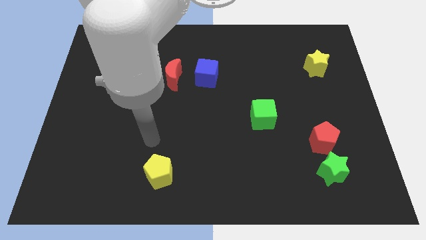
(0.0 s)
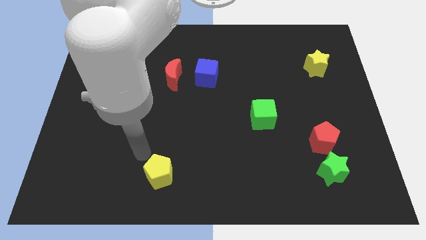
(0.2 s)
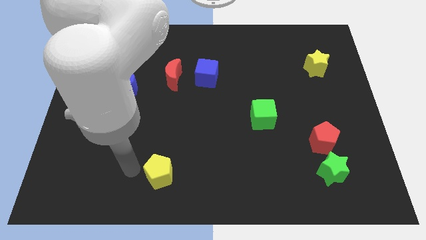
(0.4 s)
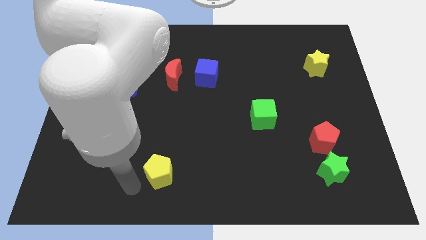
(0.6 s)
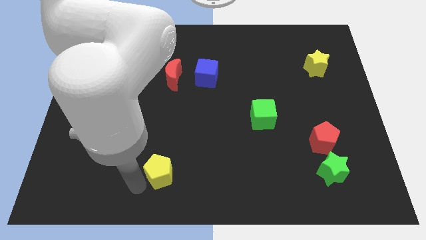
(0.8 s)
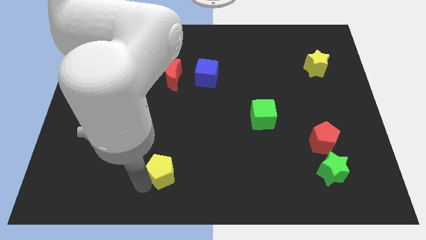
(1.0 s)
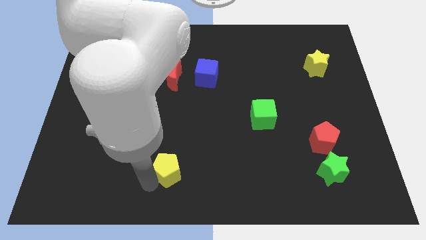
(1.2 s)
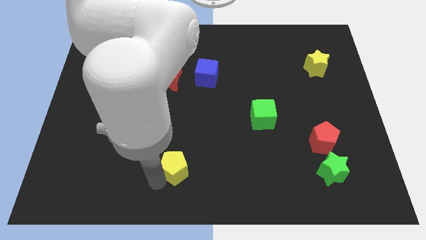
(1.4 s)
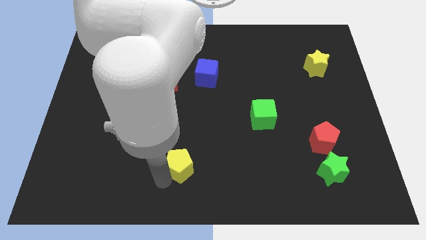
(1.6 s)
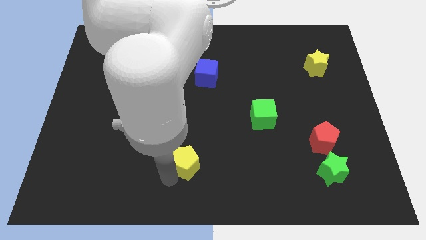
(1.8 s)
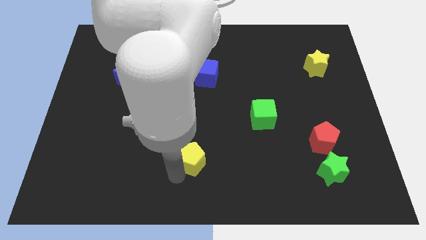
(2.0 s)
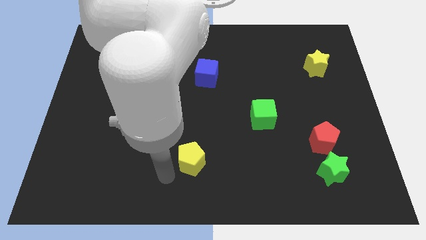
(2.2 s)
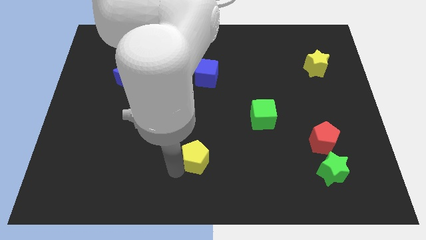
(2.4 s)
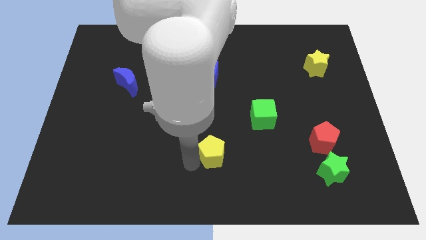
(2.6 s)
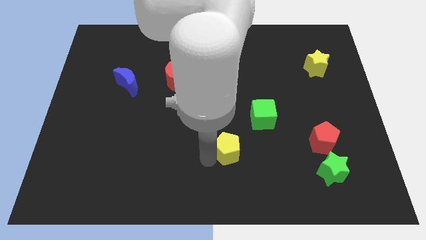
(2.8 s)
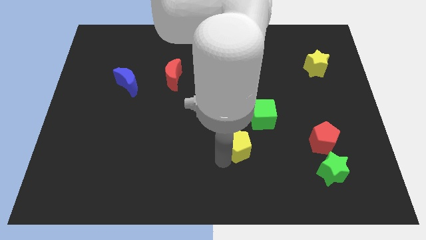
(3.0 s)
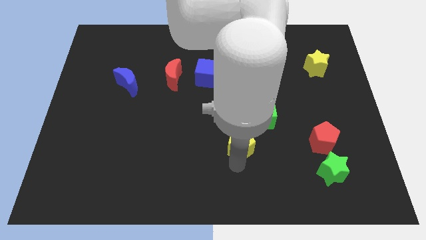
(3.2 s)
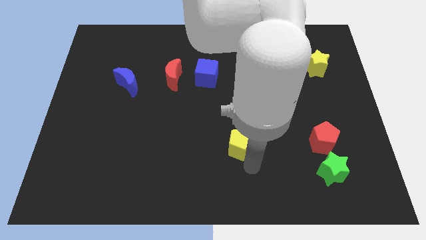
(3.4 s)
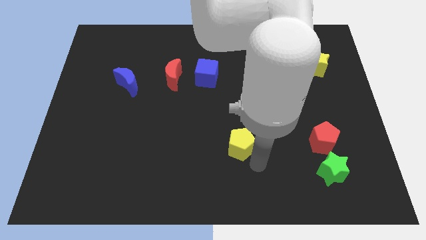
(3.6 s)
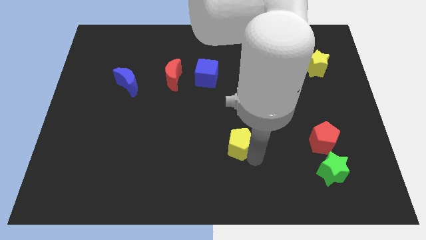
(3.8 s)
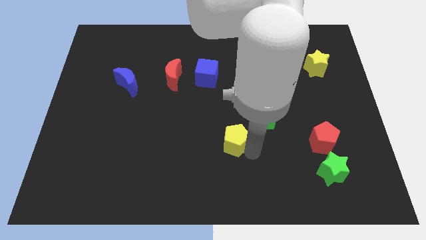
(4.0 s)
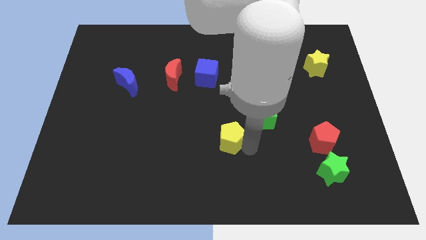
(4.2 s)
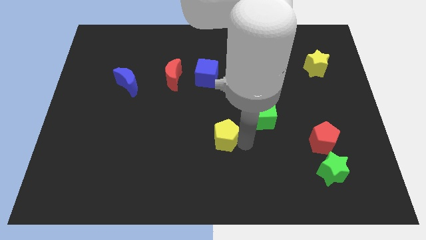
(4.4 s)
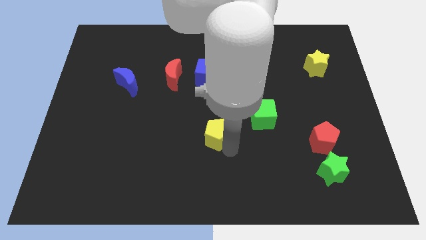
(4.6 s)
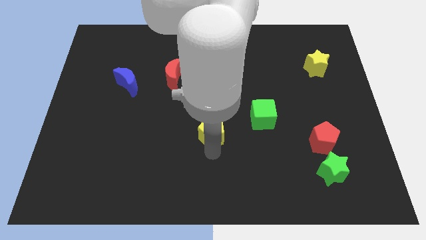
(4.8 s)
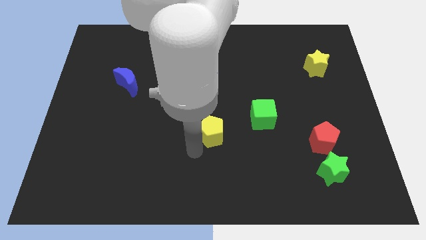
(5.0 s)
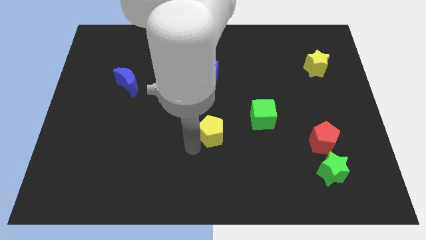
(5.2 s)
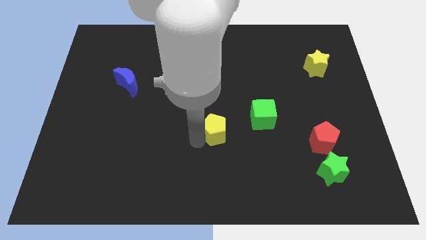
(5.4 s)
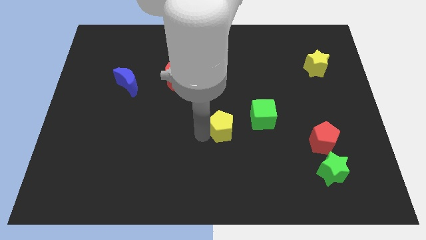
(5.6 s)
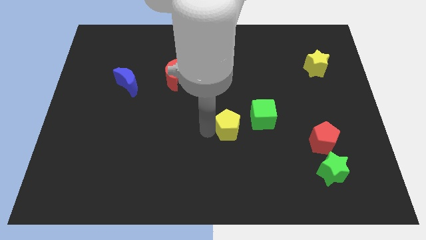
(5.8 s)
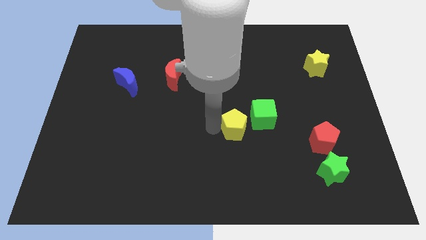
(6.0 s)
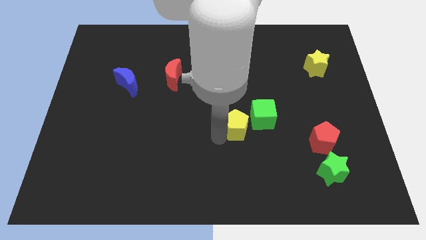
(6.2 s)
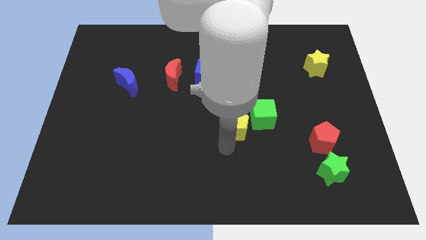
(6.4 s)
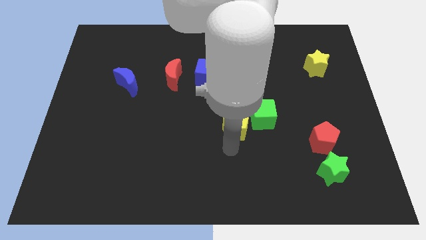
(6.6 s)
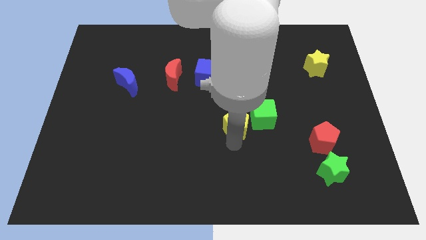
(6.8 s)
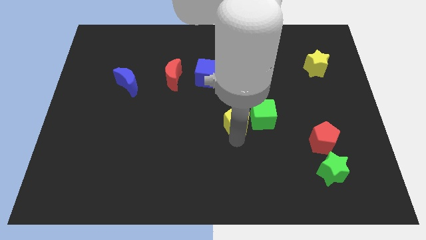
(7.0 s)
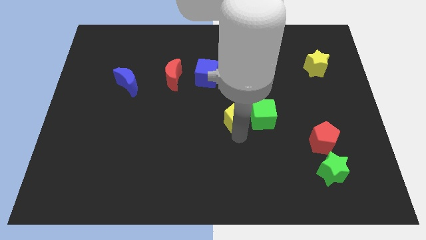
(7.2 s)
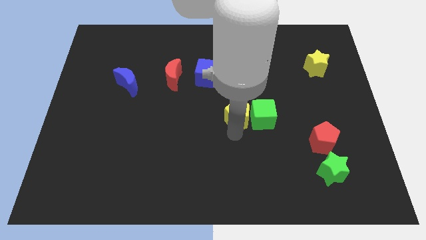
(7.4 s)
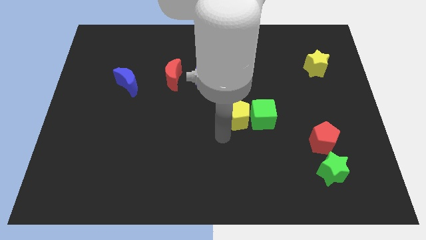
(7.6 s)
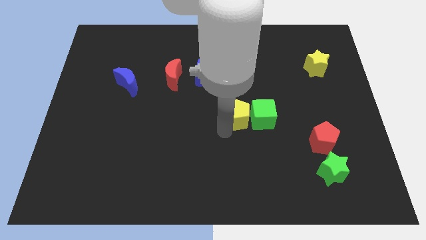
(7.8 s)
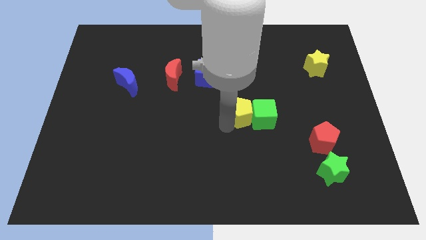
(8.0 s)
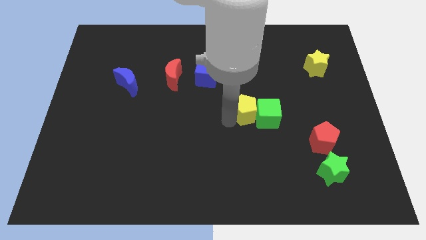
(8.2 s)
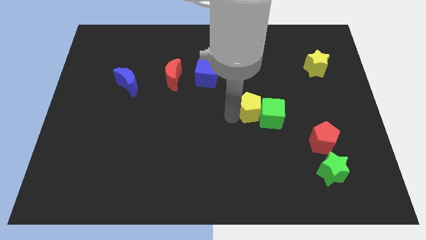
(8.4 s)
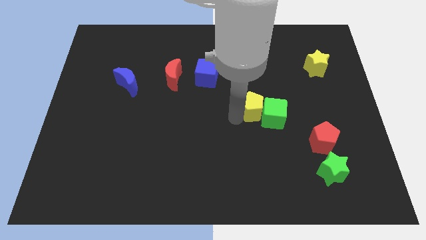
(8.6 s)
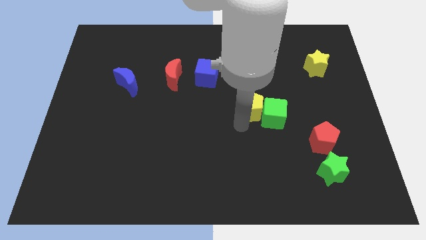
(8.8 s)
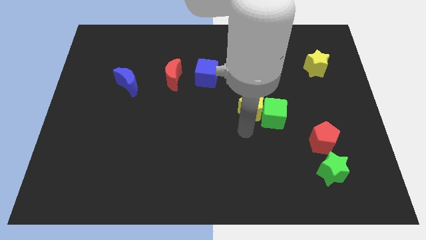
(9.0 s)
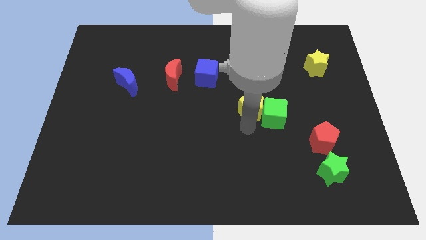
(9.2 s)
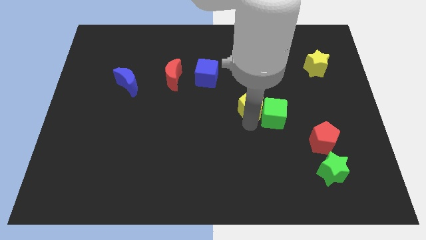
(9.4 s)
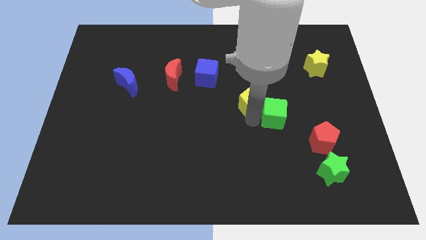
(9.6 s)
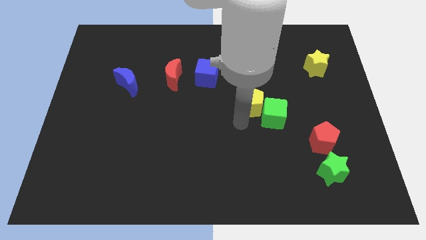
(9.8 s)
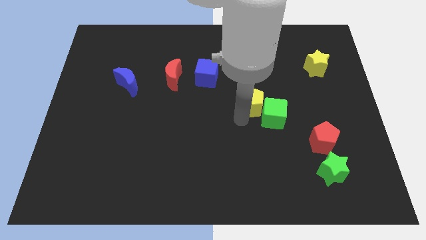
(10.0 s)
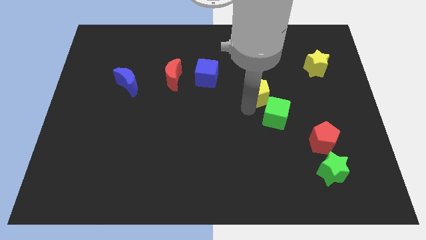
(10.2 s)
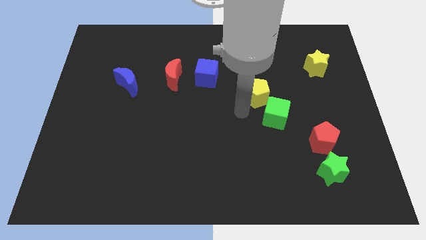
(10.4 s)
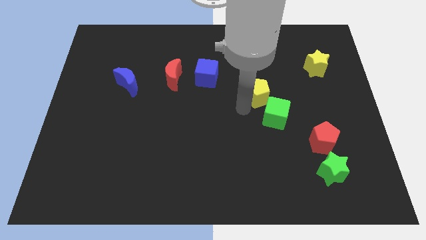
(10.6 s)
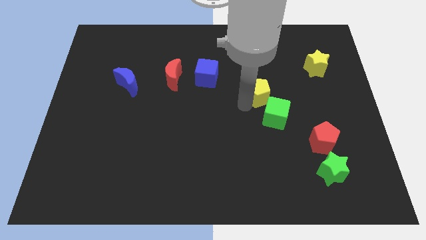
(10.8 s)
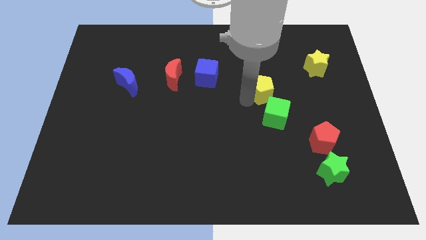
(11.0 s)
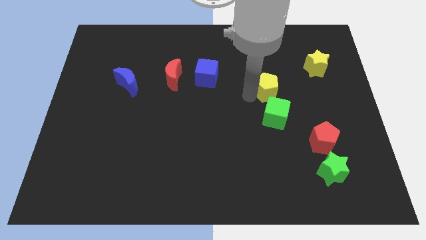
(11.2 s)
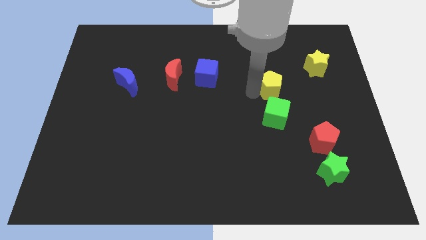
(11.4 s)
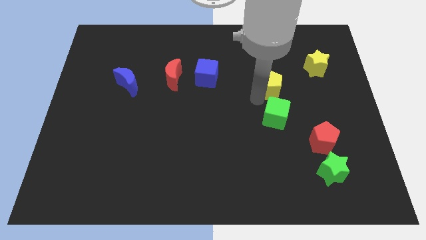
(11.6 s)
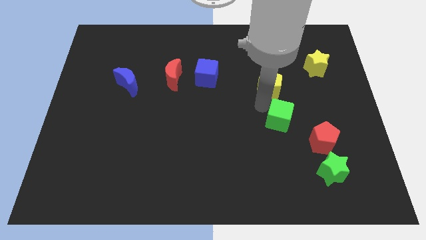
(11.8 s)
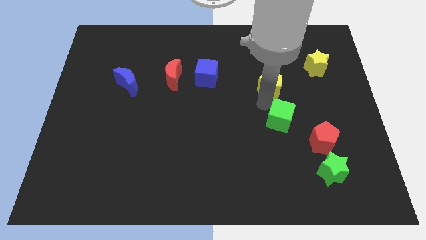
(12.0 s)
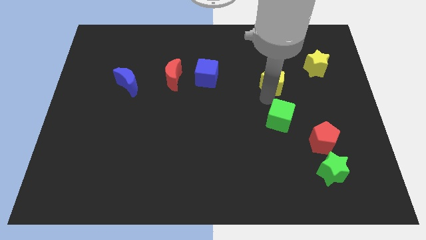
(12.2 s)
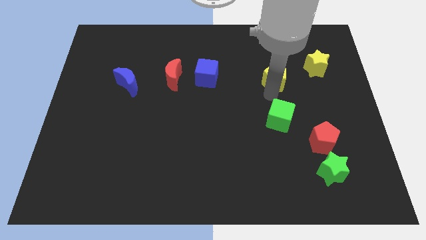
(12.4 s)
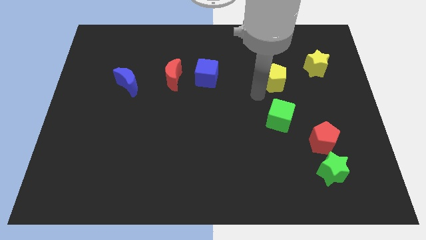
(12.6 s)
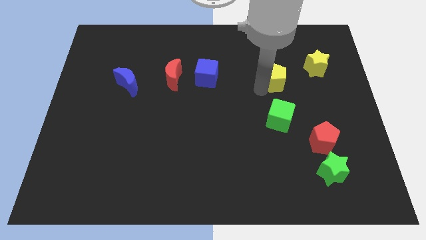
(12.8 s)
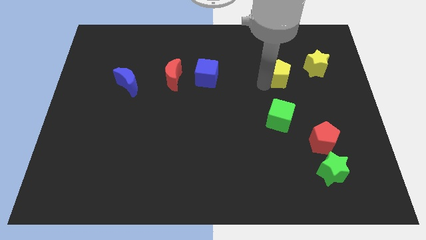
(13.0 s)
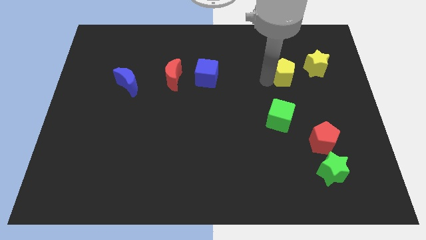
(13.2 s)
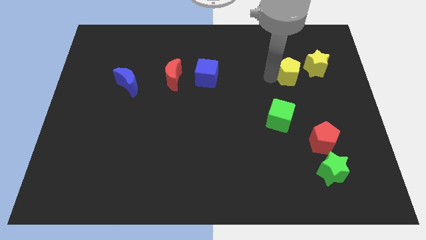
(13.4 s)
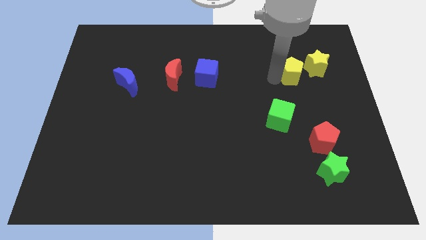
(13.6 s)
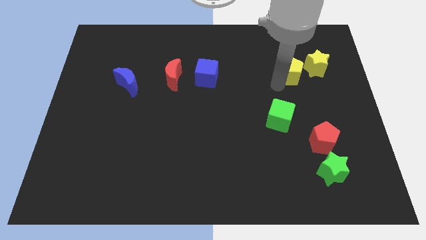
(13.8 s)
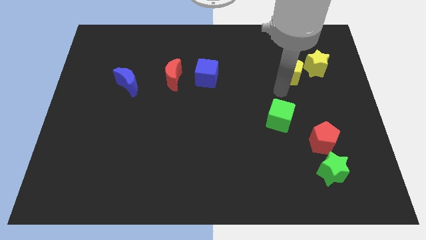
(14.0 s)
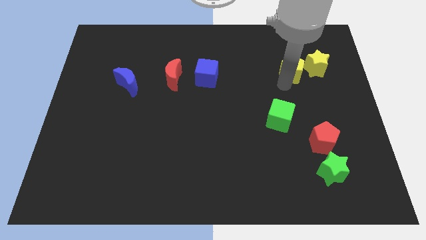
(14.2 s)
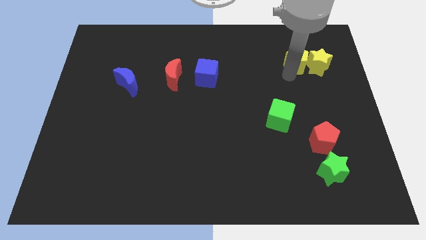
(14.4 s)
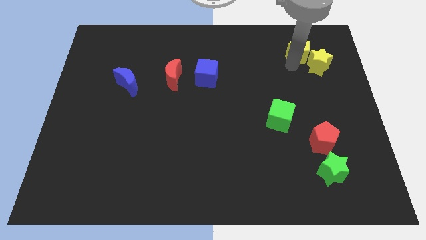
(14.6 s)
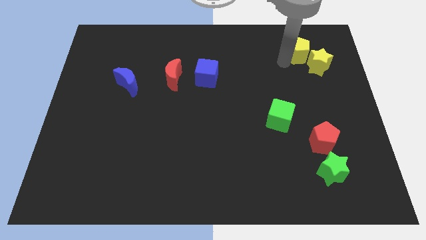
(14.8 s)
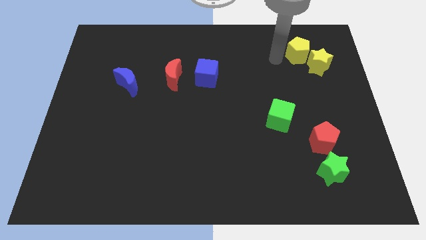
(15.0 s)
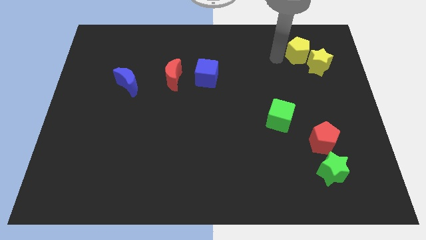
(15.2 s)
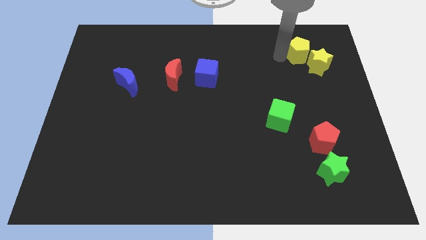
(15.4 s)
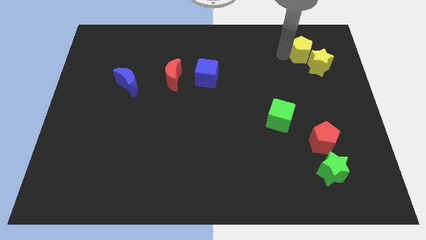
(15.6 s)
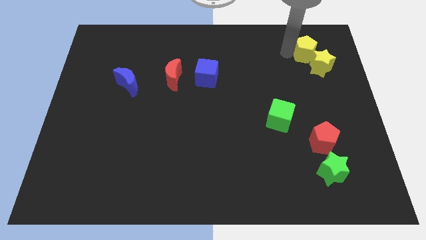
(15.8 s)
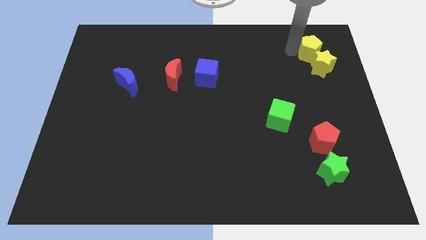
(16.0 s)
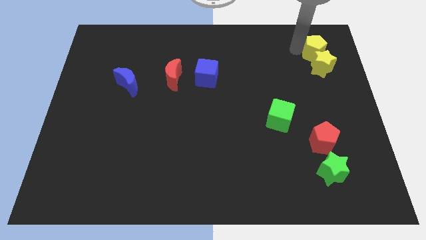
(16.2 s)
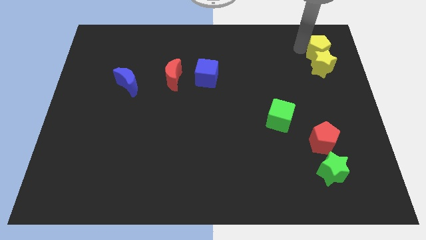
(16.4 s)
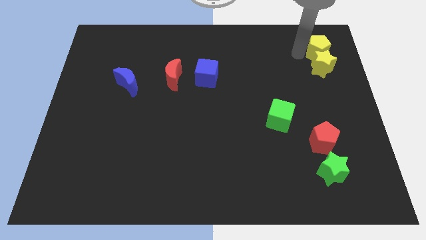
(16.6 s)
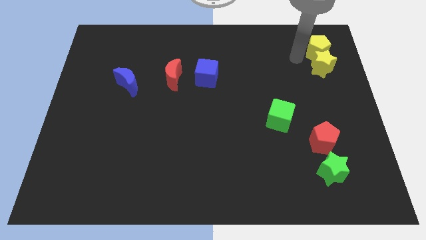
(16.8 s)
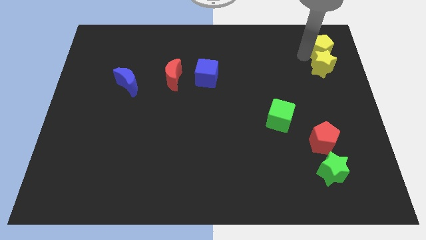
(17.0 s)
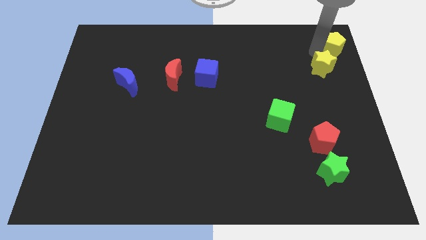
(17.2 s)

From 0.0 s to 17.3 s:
move the yellow pentagon to the top right corner
